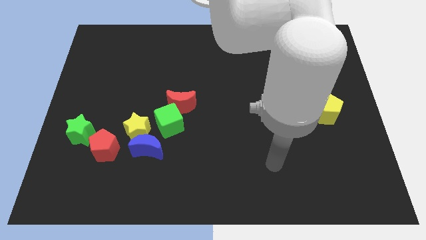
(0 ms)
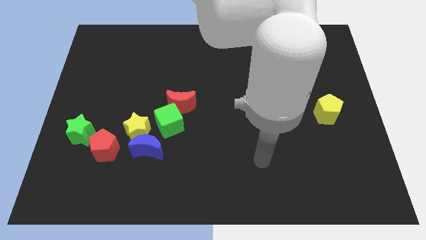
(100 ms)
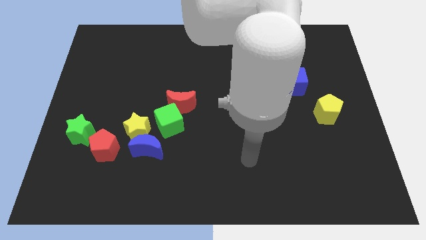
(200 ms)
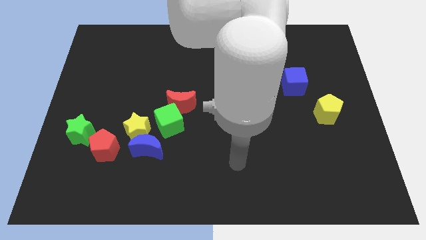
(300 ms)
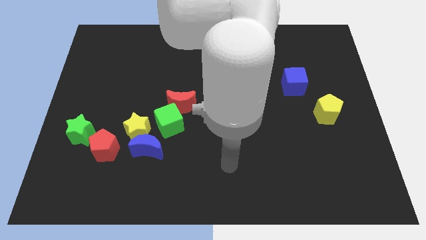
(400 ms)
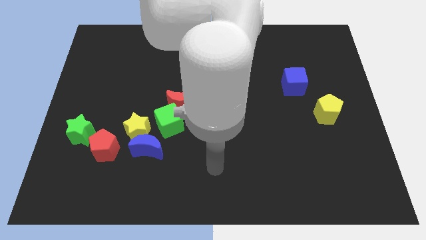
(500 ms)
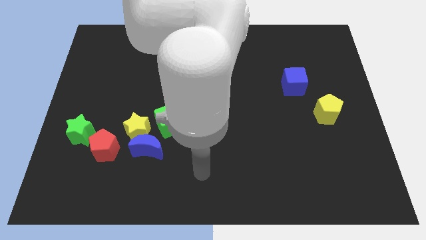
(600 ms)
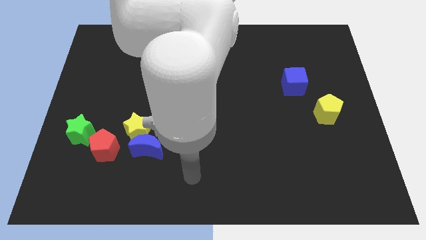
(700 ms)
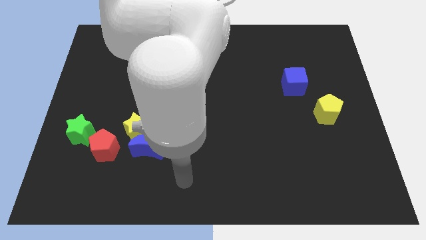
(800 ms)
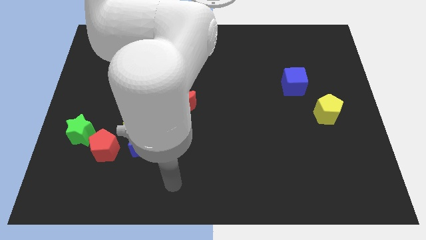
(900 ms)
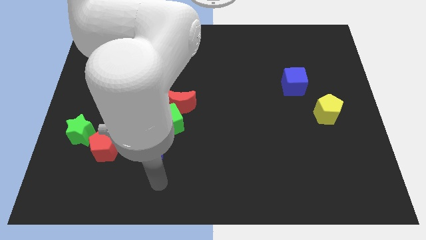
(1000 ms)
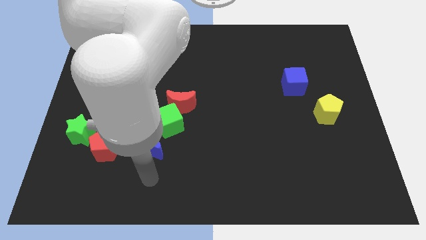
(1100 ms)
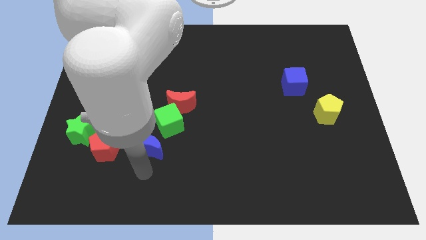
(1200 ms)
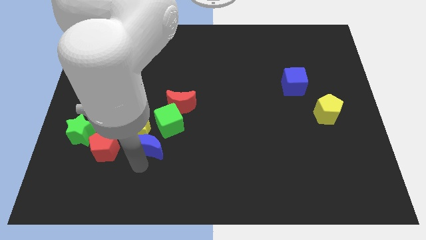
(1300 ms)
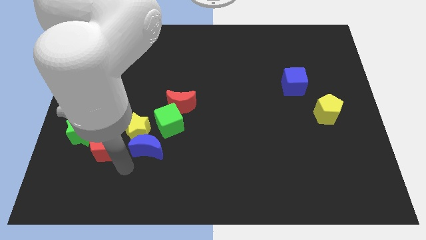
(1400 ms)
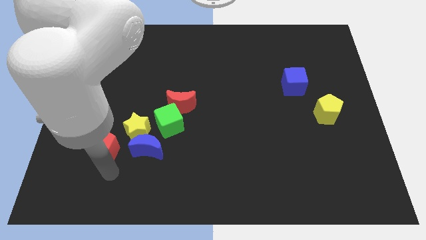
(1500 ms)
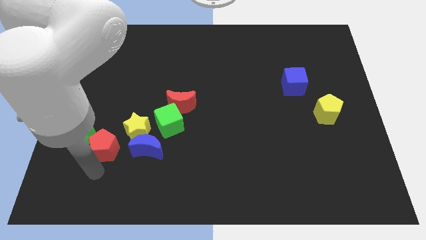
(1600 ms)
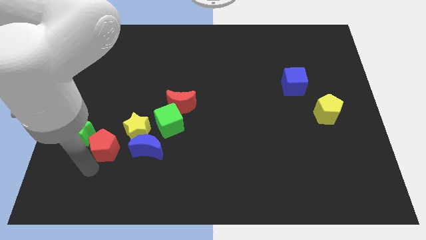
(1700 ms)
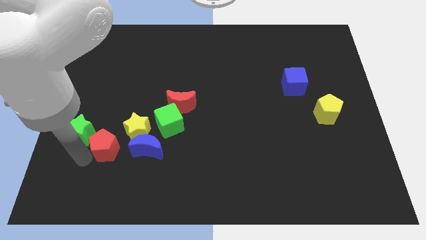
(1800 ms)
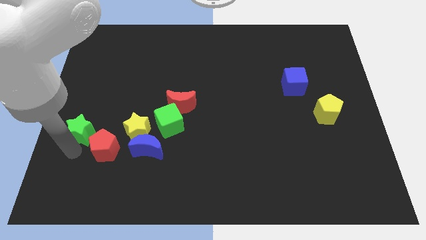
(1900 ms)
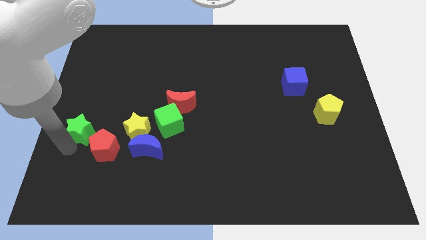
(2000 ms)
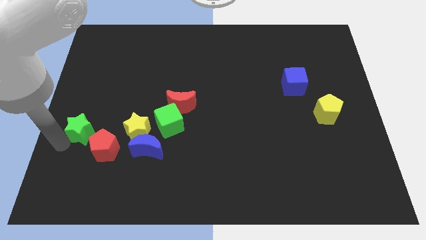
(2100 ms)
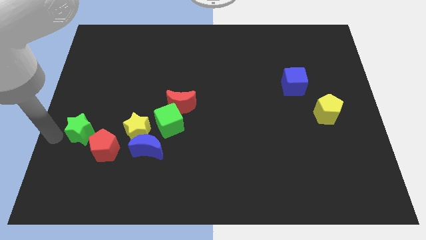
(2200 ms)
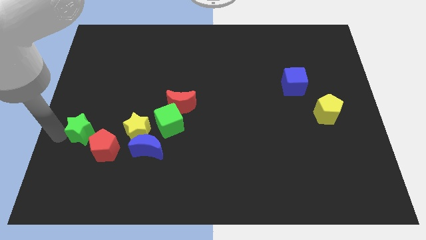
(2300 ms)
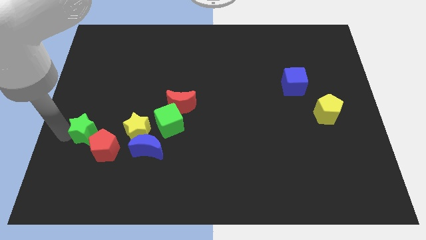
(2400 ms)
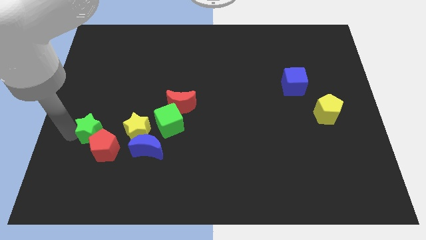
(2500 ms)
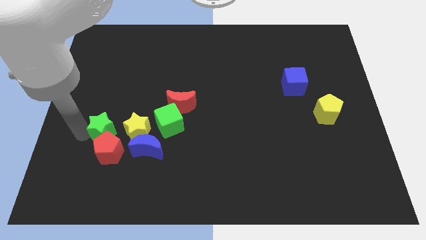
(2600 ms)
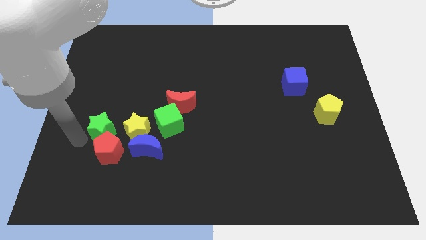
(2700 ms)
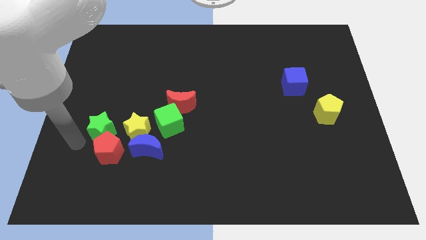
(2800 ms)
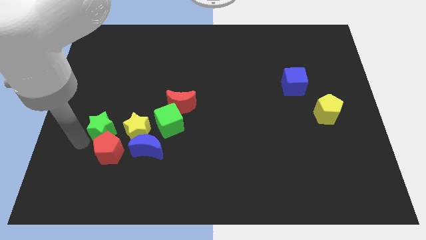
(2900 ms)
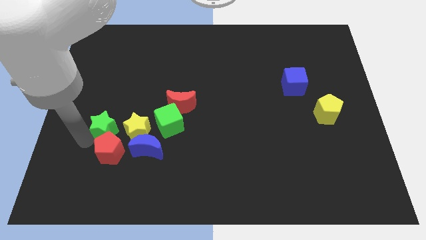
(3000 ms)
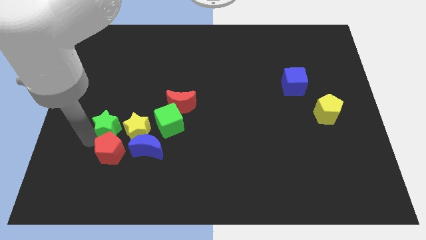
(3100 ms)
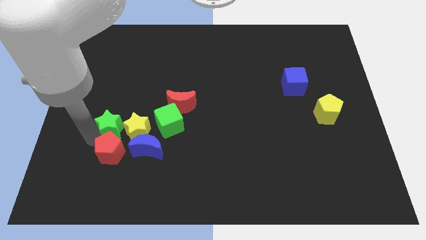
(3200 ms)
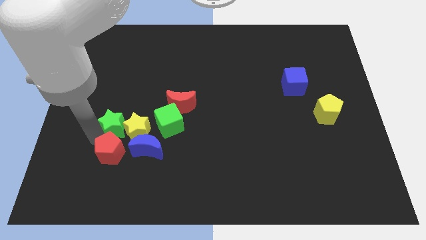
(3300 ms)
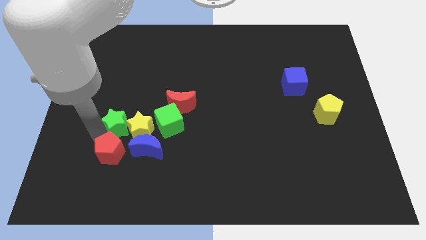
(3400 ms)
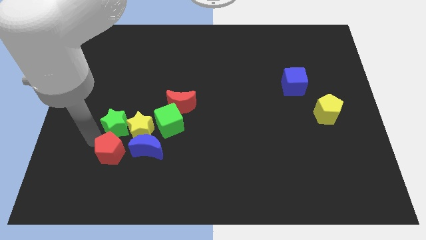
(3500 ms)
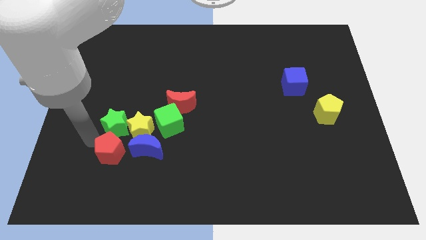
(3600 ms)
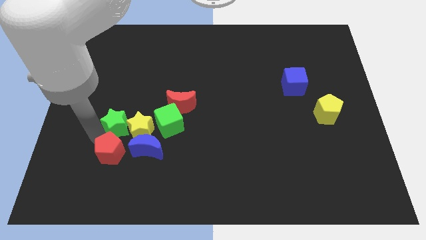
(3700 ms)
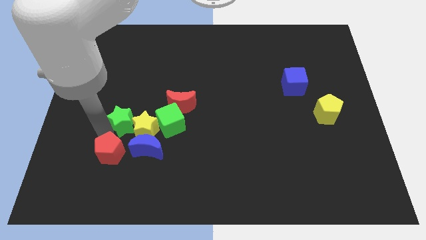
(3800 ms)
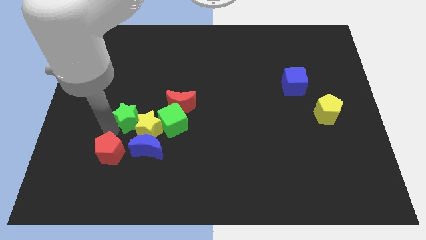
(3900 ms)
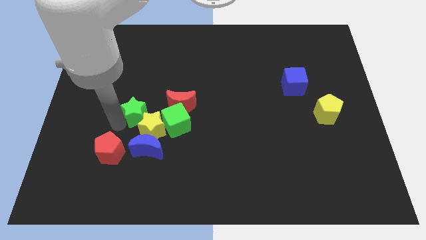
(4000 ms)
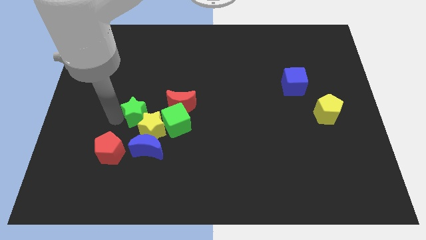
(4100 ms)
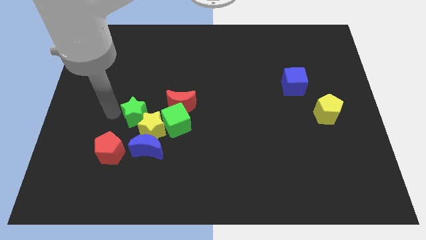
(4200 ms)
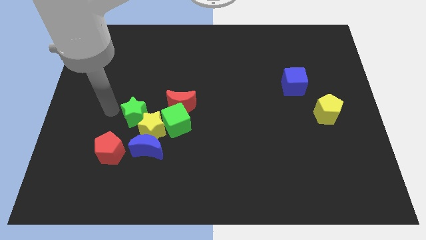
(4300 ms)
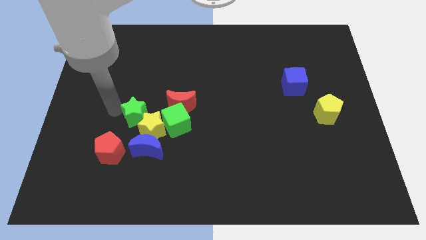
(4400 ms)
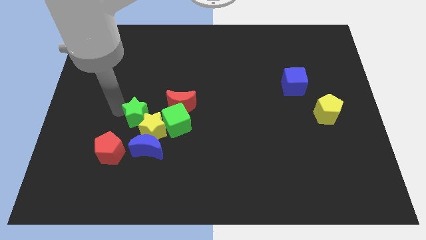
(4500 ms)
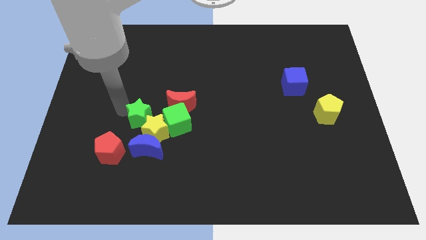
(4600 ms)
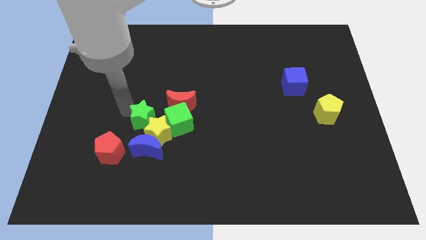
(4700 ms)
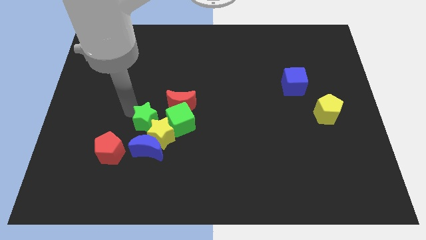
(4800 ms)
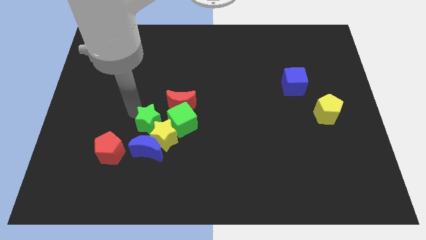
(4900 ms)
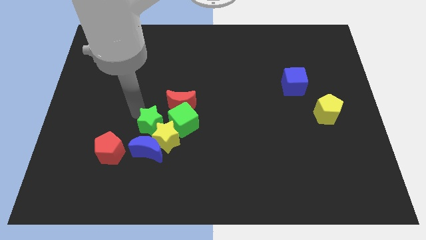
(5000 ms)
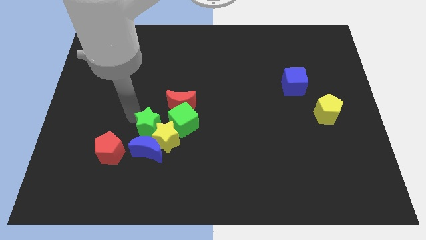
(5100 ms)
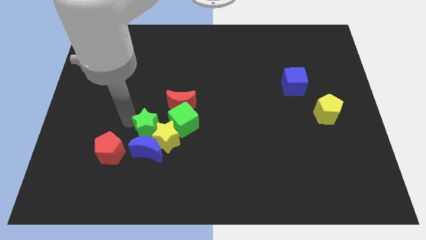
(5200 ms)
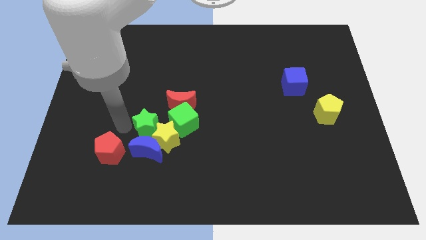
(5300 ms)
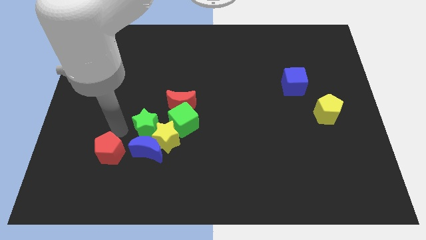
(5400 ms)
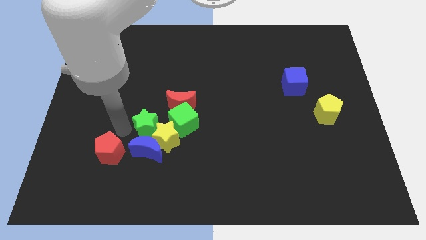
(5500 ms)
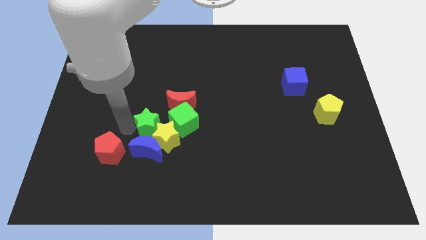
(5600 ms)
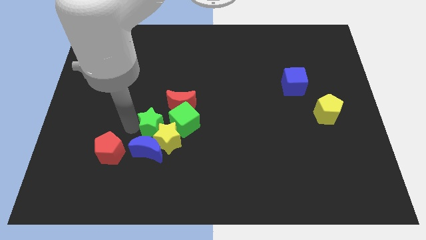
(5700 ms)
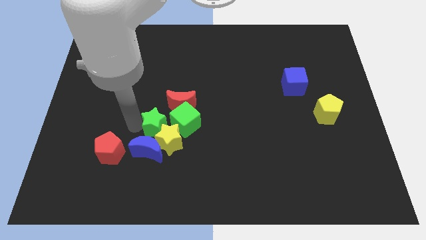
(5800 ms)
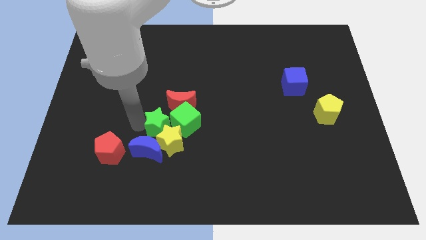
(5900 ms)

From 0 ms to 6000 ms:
push the green star next to the green cube

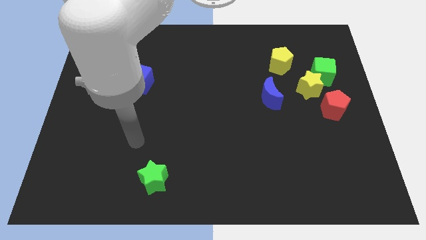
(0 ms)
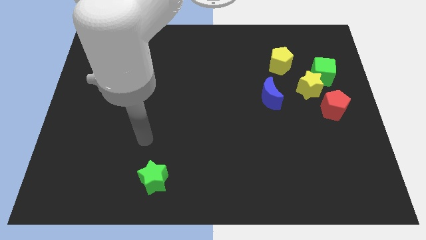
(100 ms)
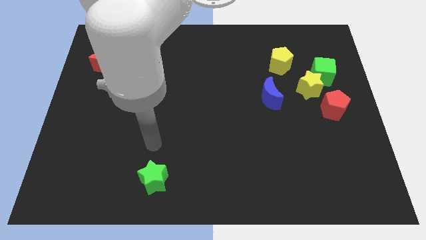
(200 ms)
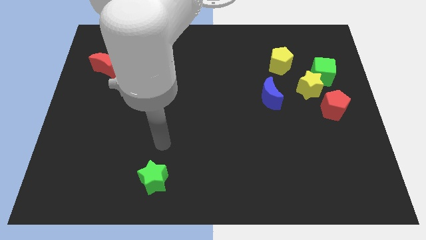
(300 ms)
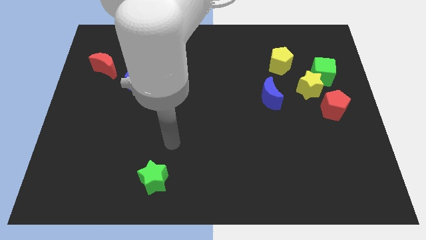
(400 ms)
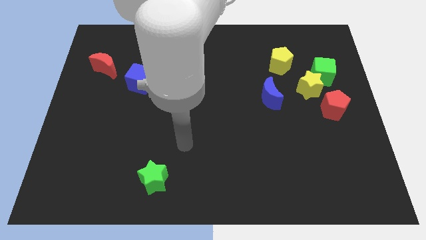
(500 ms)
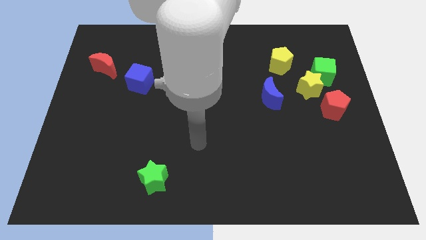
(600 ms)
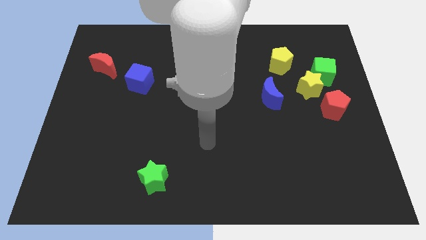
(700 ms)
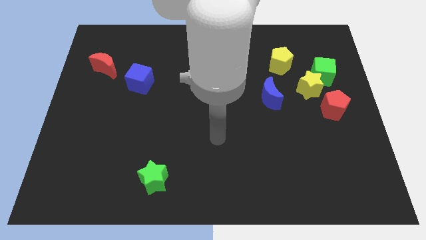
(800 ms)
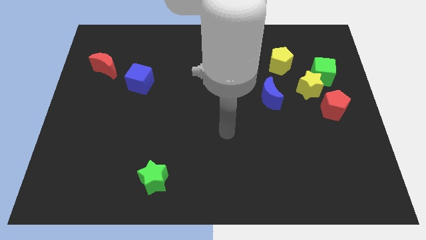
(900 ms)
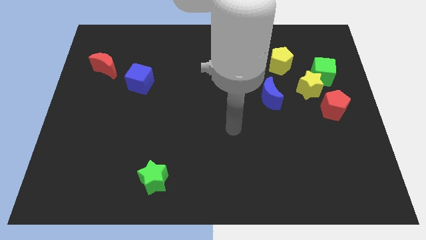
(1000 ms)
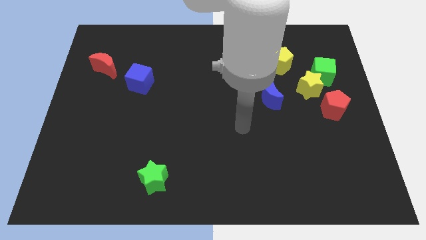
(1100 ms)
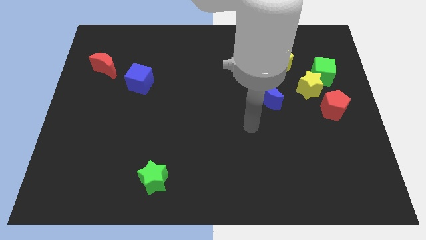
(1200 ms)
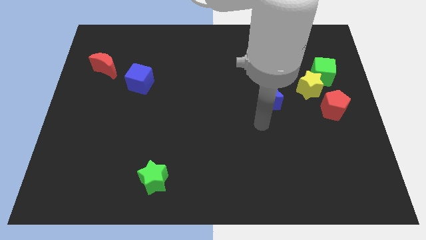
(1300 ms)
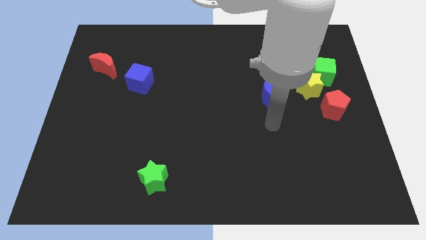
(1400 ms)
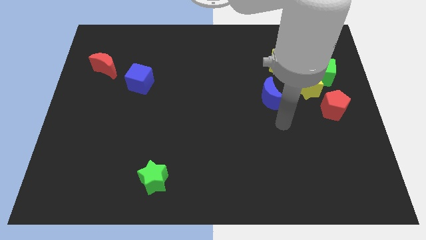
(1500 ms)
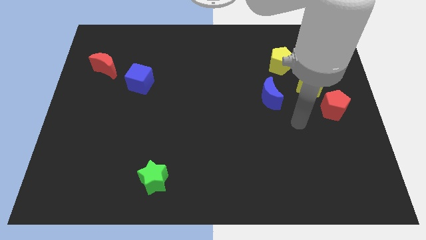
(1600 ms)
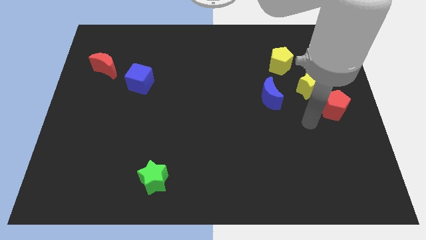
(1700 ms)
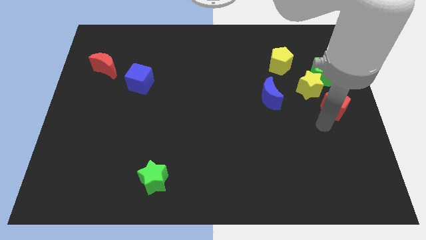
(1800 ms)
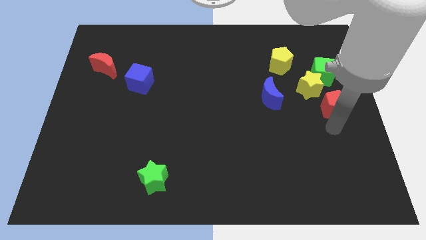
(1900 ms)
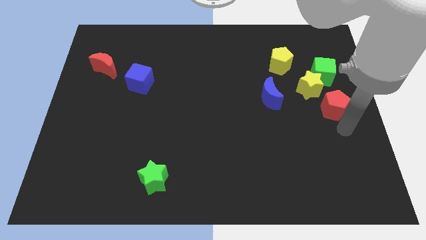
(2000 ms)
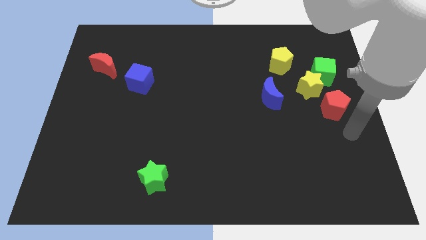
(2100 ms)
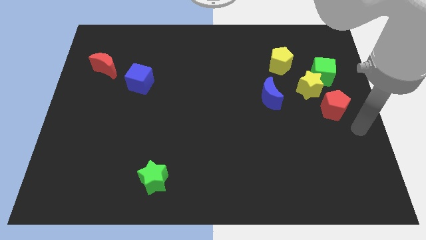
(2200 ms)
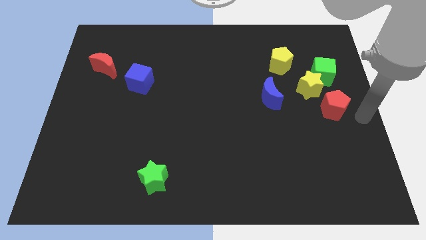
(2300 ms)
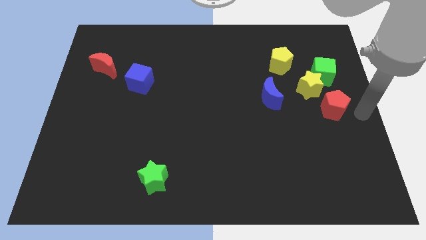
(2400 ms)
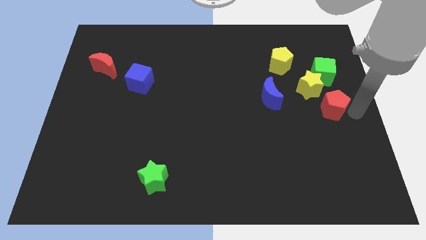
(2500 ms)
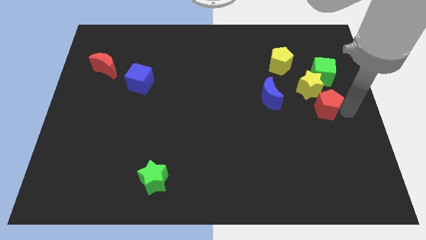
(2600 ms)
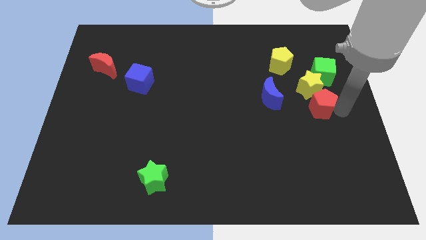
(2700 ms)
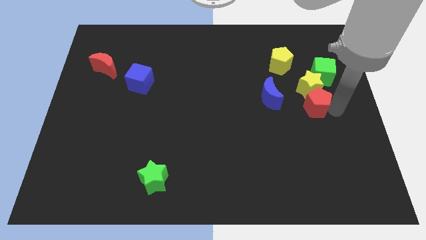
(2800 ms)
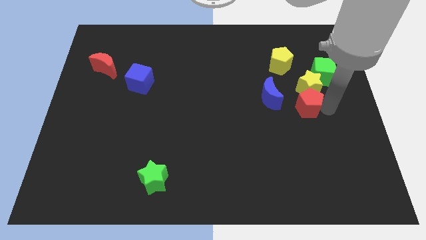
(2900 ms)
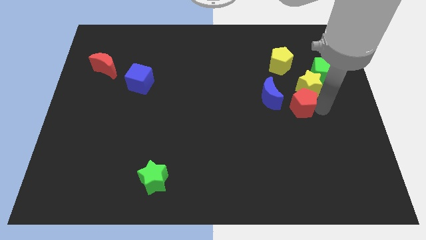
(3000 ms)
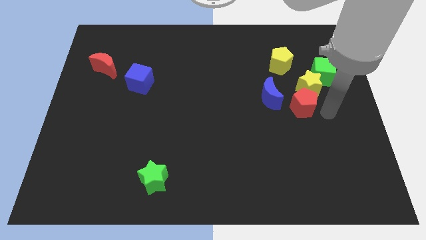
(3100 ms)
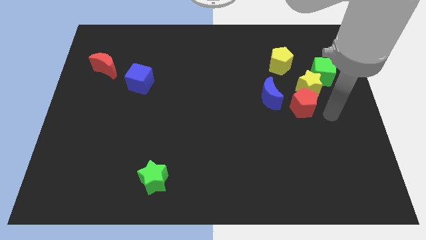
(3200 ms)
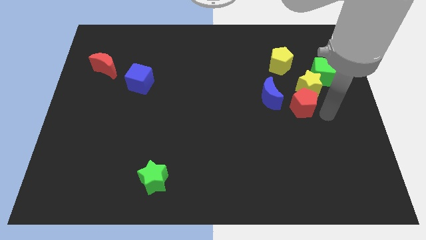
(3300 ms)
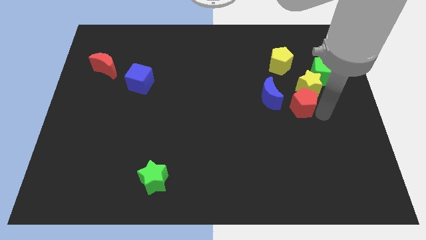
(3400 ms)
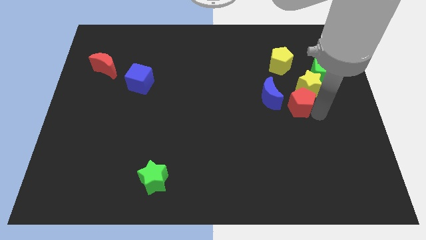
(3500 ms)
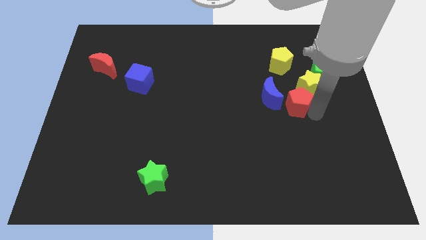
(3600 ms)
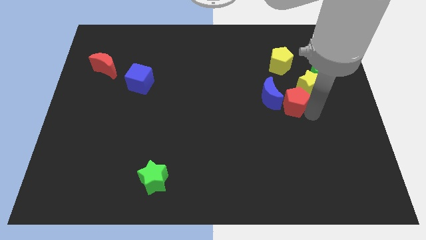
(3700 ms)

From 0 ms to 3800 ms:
put the red pentagon to the blue moon
